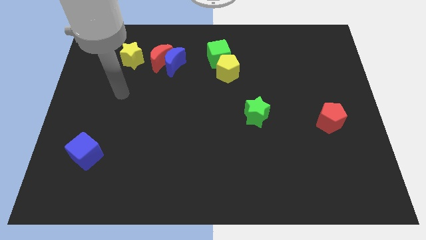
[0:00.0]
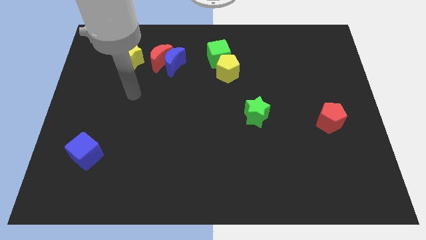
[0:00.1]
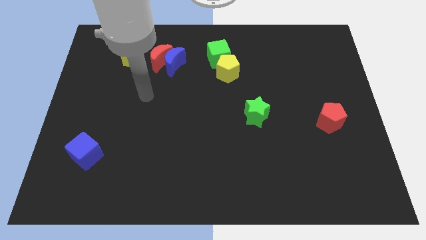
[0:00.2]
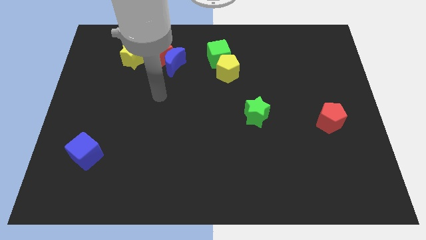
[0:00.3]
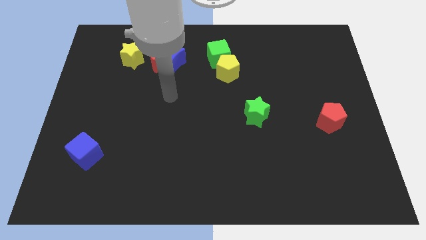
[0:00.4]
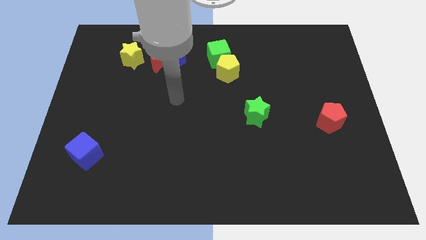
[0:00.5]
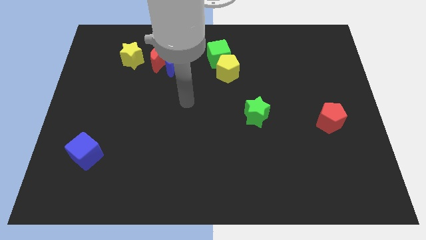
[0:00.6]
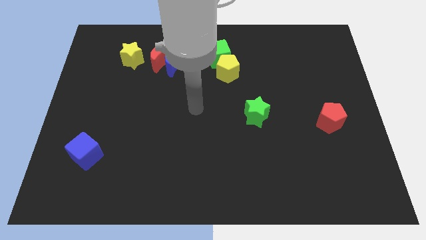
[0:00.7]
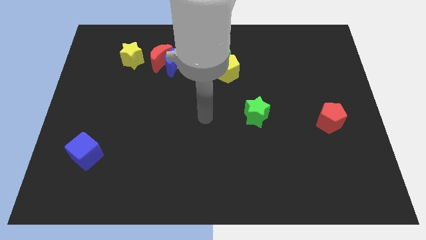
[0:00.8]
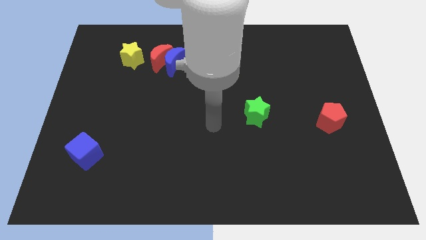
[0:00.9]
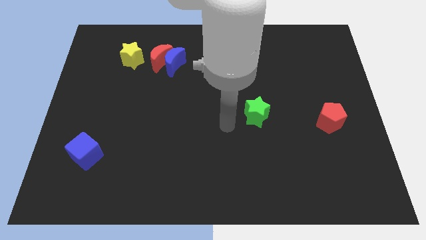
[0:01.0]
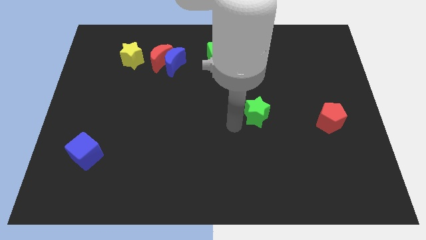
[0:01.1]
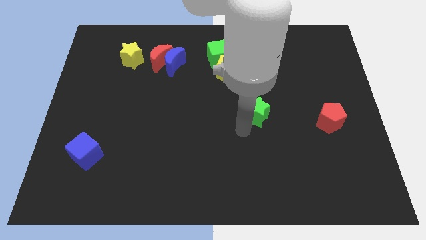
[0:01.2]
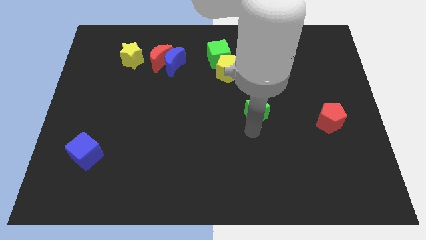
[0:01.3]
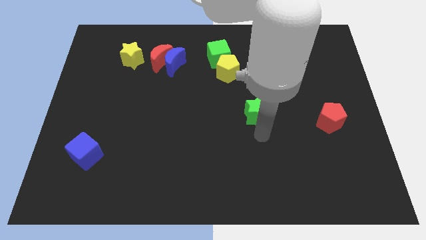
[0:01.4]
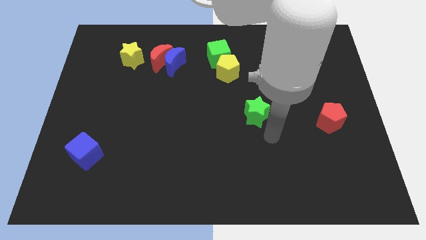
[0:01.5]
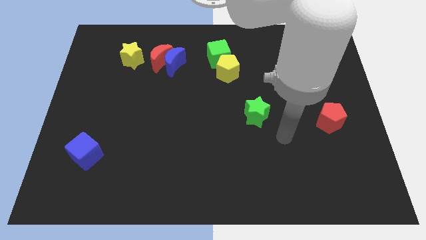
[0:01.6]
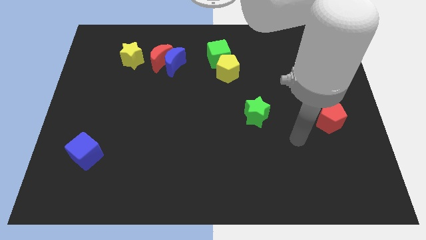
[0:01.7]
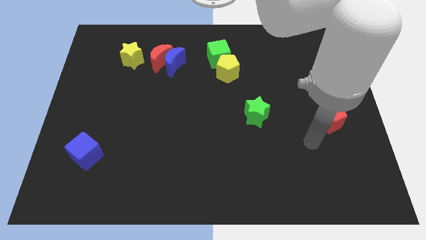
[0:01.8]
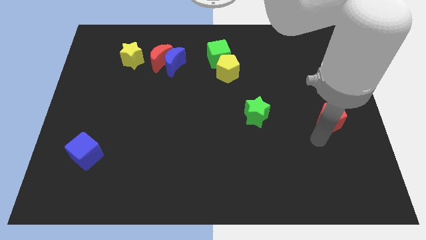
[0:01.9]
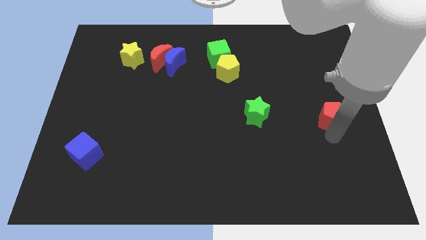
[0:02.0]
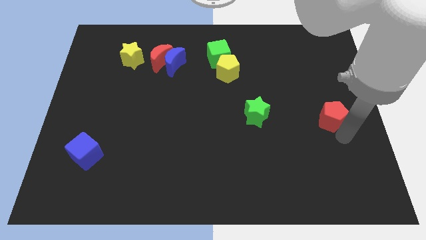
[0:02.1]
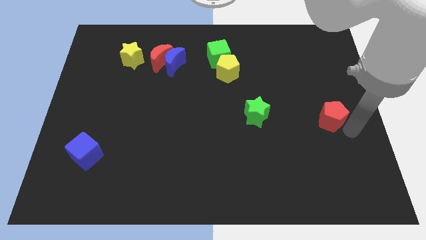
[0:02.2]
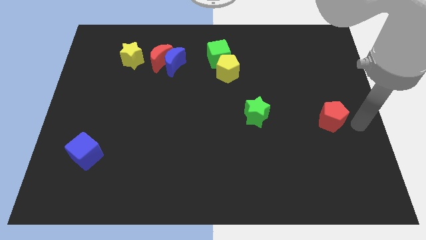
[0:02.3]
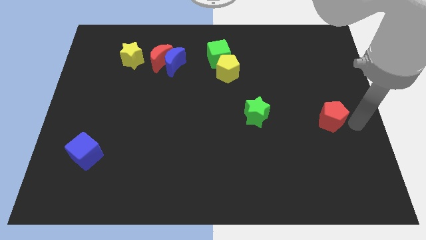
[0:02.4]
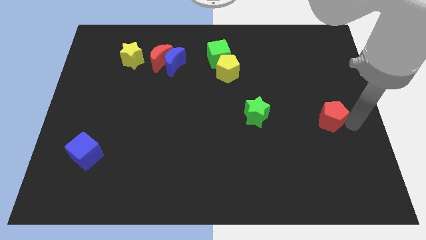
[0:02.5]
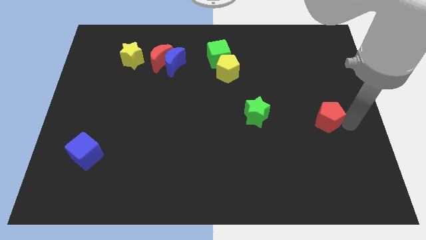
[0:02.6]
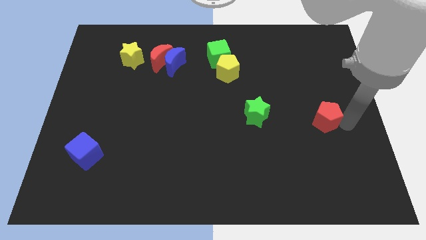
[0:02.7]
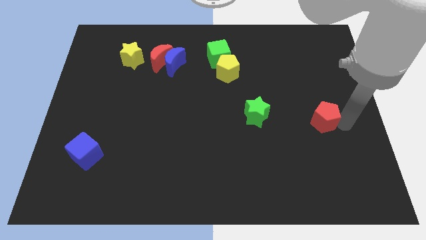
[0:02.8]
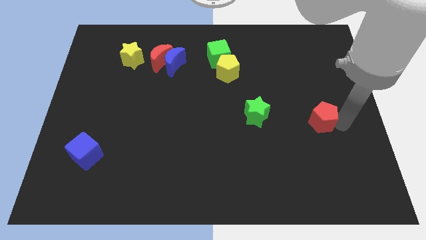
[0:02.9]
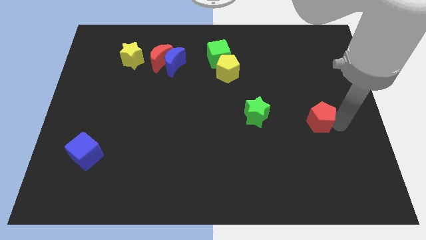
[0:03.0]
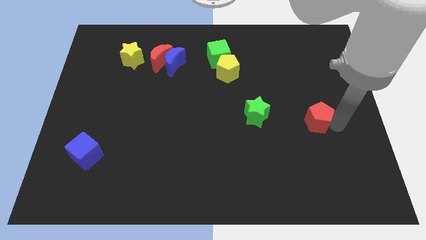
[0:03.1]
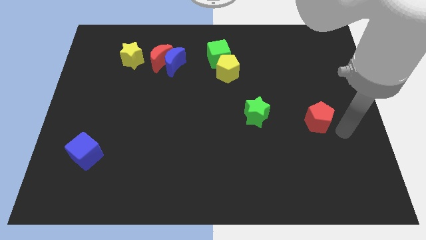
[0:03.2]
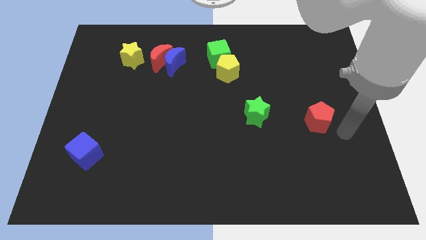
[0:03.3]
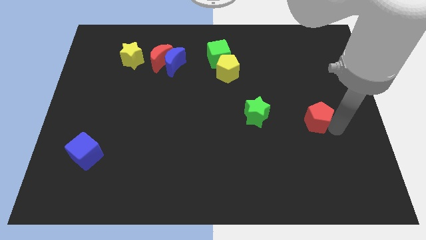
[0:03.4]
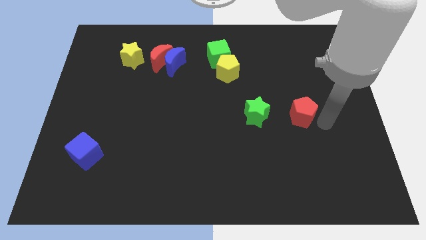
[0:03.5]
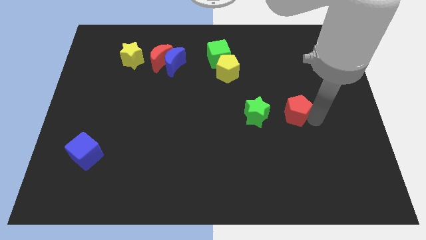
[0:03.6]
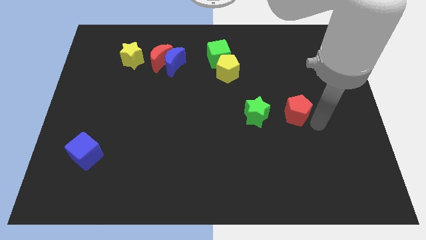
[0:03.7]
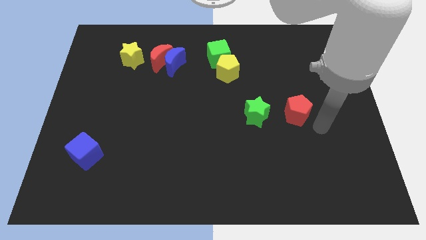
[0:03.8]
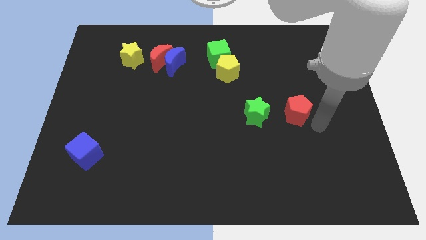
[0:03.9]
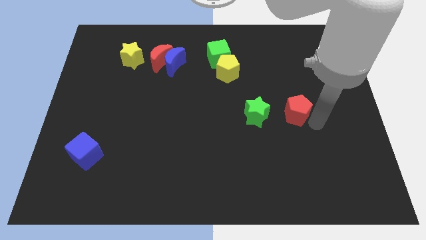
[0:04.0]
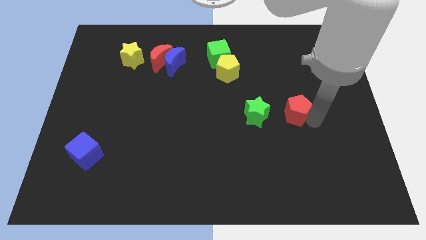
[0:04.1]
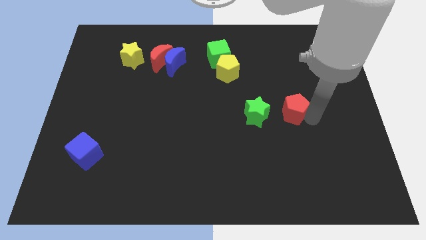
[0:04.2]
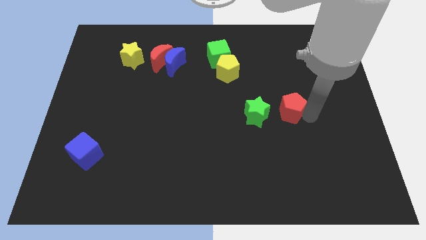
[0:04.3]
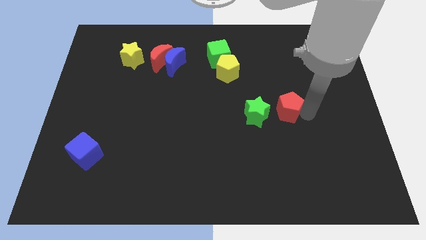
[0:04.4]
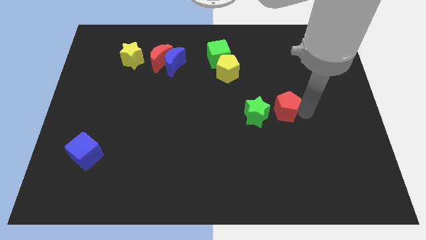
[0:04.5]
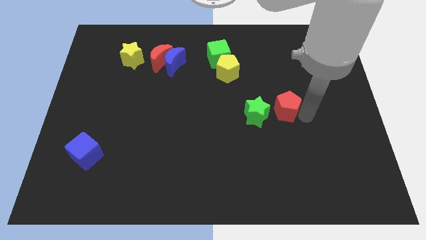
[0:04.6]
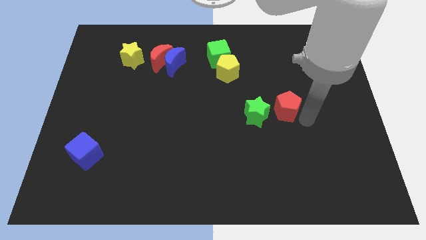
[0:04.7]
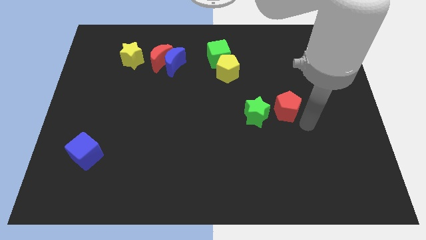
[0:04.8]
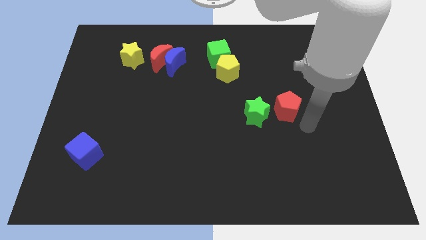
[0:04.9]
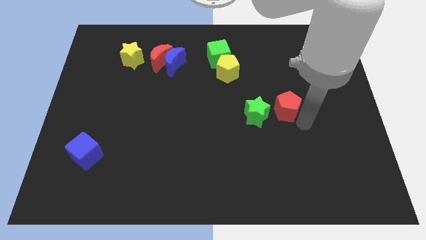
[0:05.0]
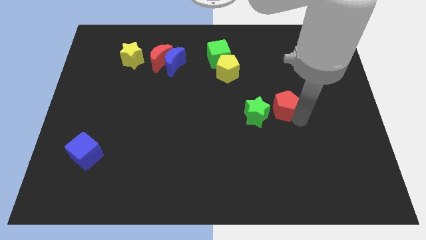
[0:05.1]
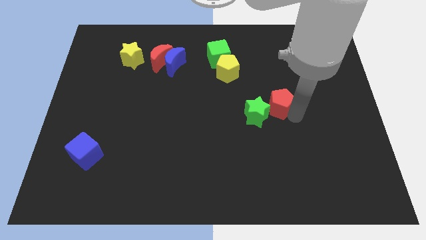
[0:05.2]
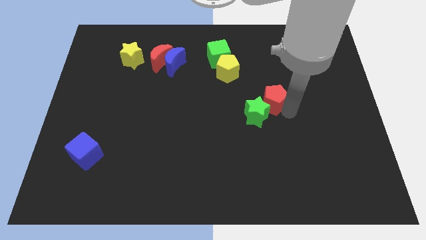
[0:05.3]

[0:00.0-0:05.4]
slide the red pentagon above the green star

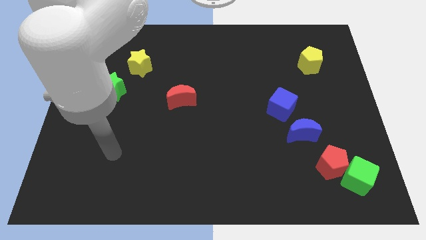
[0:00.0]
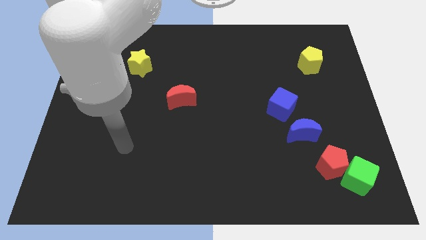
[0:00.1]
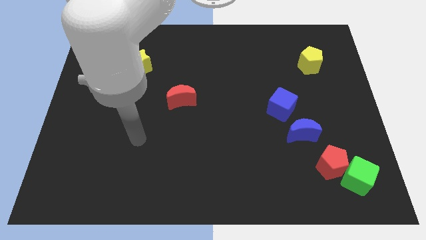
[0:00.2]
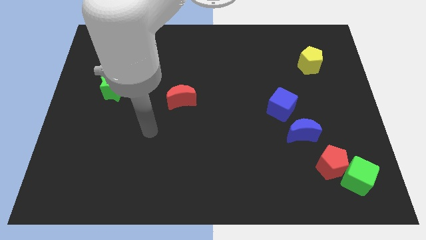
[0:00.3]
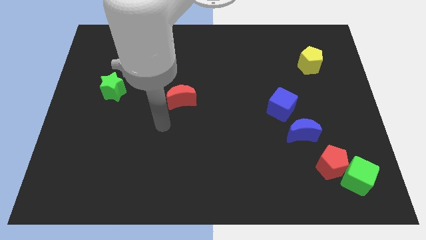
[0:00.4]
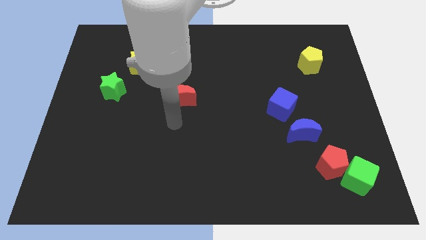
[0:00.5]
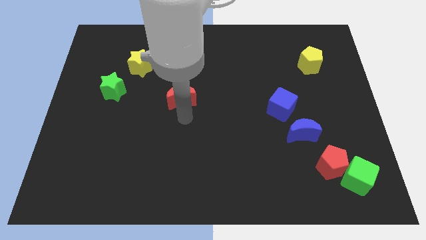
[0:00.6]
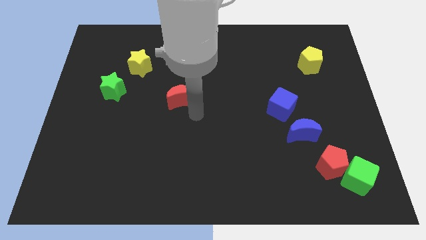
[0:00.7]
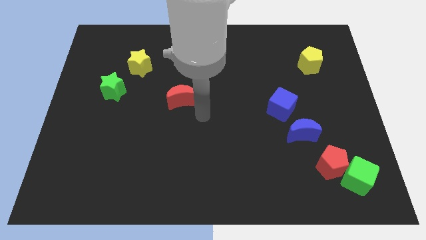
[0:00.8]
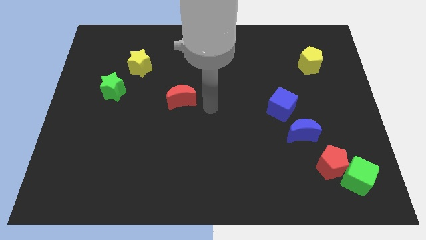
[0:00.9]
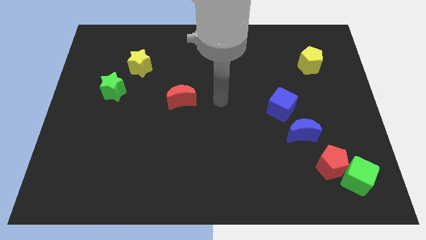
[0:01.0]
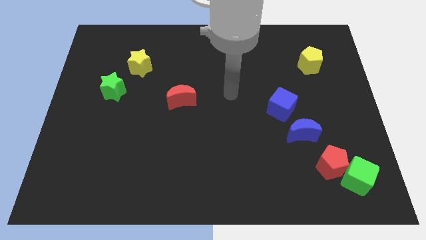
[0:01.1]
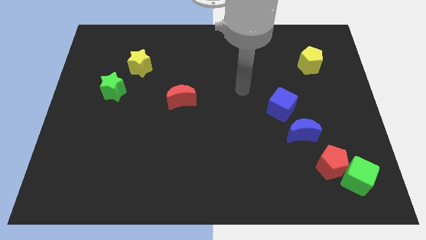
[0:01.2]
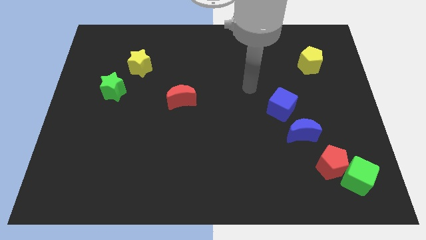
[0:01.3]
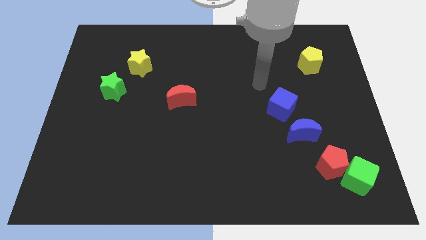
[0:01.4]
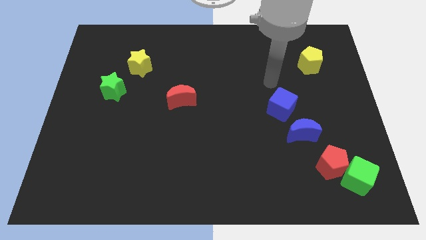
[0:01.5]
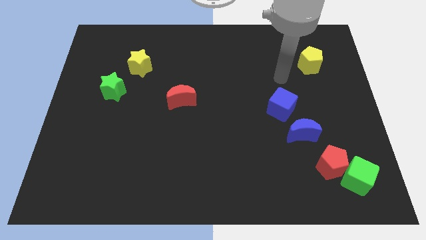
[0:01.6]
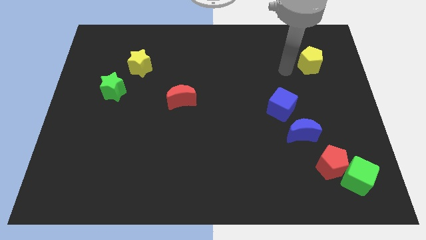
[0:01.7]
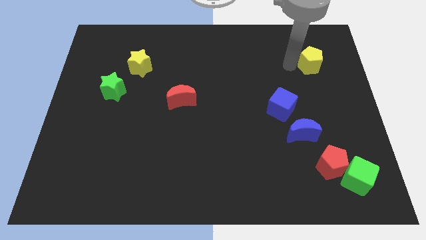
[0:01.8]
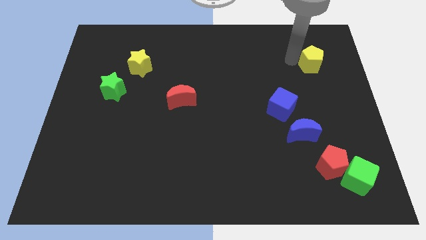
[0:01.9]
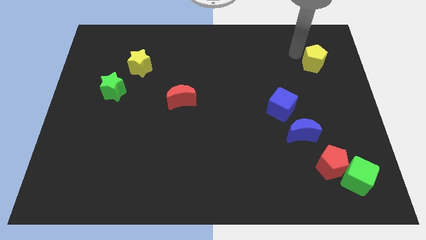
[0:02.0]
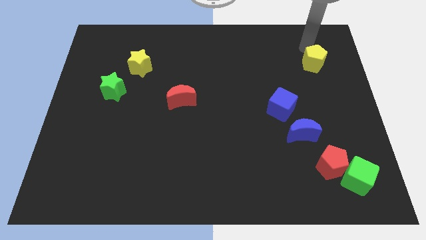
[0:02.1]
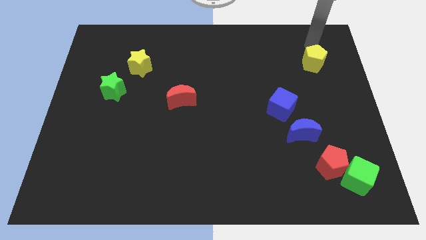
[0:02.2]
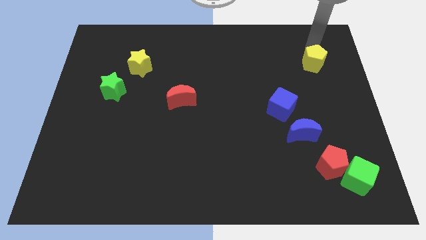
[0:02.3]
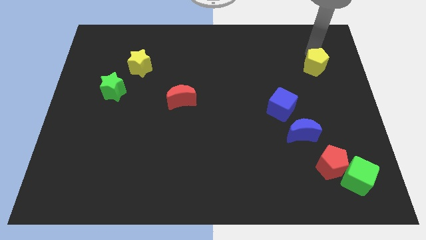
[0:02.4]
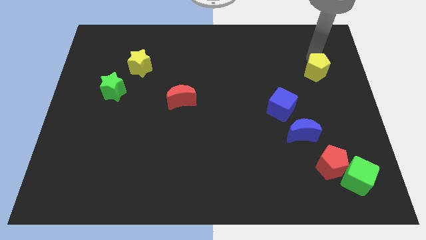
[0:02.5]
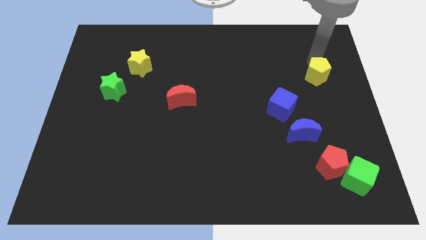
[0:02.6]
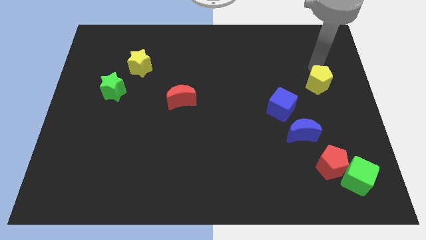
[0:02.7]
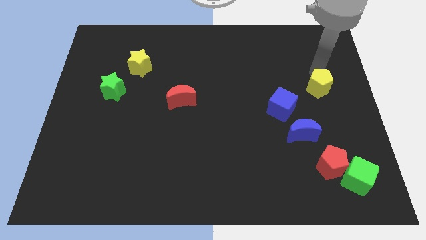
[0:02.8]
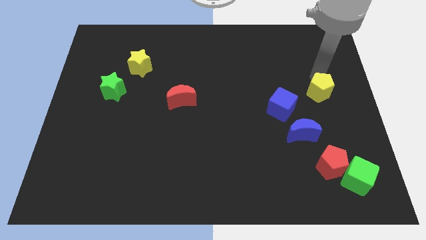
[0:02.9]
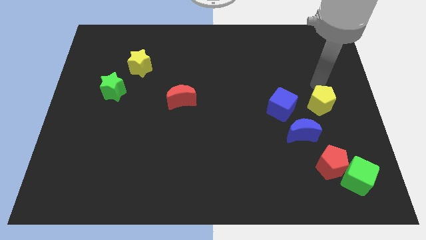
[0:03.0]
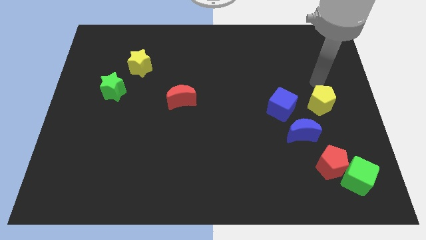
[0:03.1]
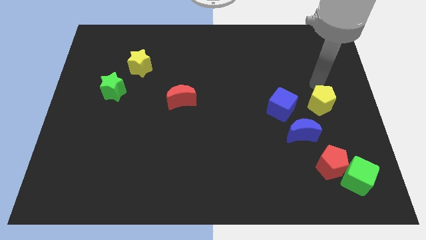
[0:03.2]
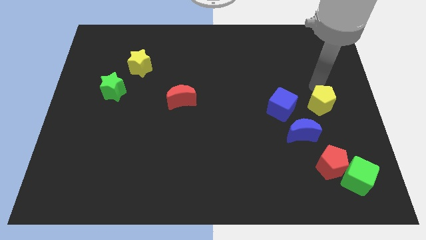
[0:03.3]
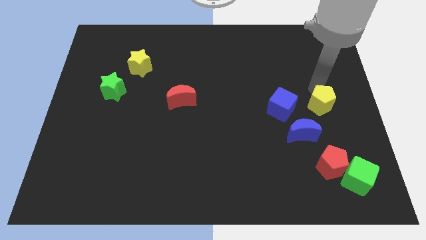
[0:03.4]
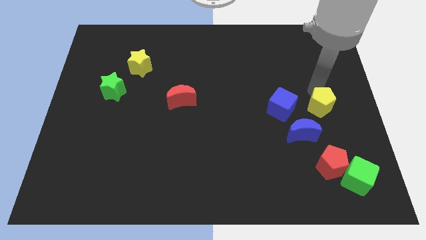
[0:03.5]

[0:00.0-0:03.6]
slide the yellow pentagon to the top of the red pentagon
